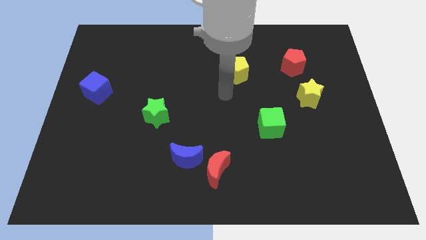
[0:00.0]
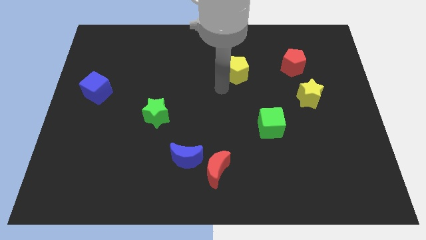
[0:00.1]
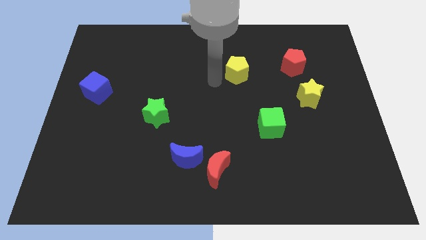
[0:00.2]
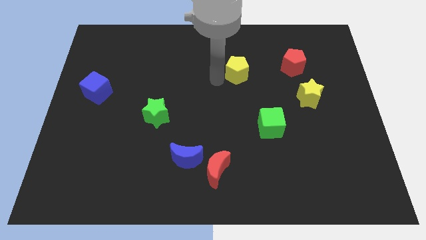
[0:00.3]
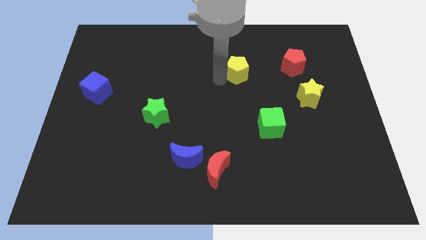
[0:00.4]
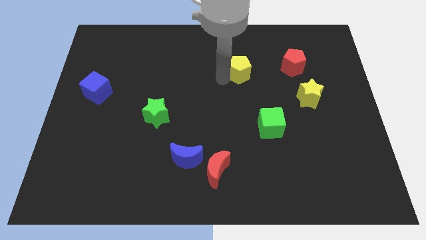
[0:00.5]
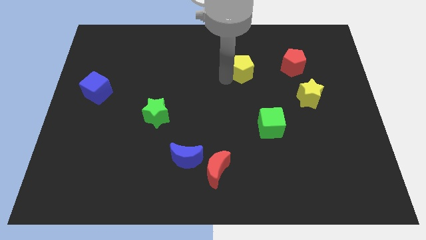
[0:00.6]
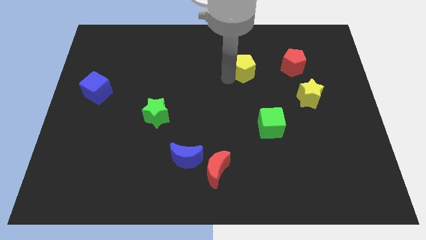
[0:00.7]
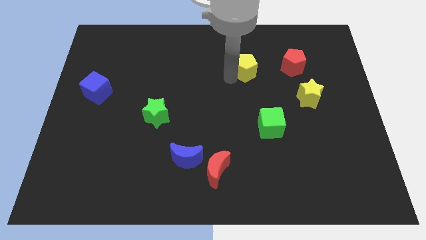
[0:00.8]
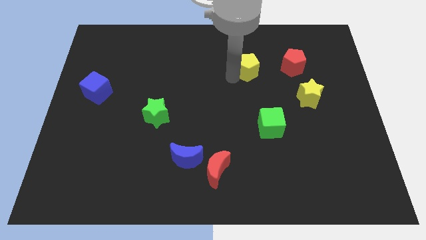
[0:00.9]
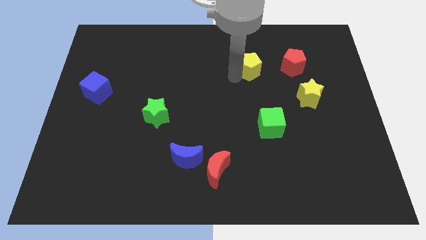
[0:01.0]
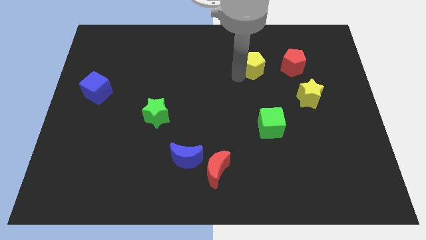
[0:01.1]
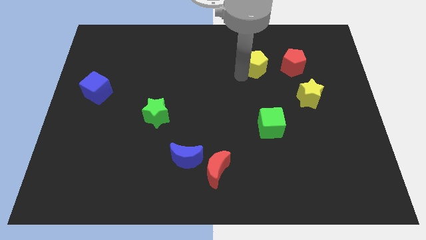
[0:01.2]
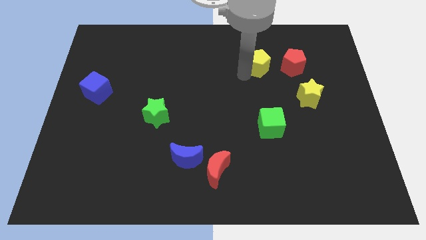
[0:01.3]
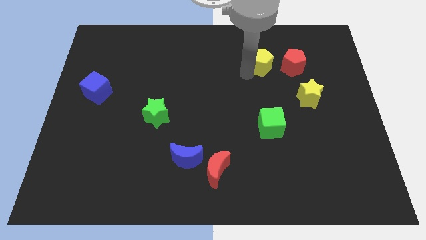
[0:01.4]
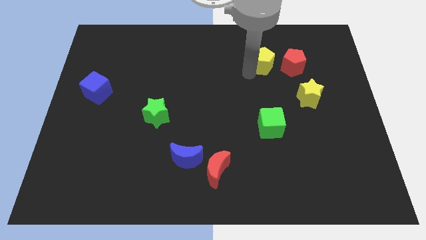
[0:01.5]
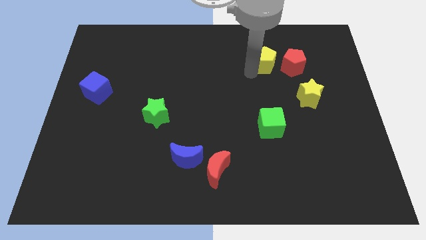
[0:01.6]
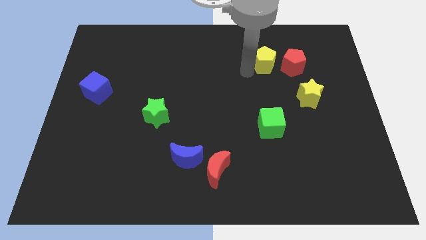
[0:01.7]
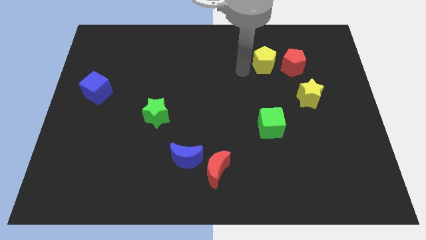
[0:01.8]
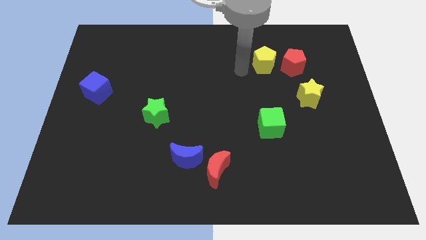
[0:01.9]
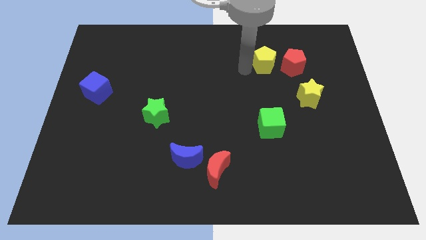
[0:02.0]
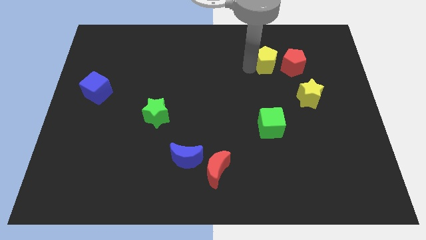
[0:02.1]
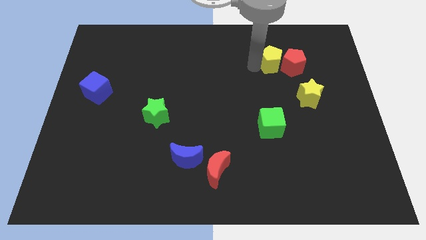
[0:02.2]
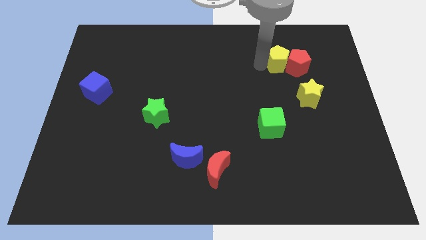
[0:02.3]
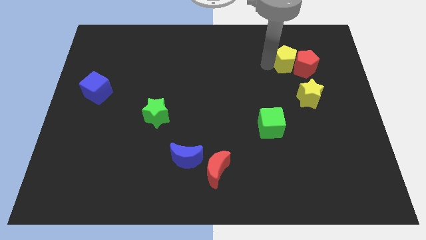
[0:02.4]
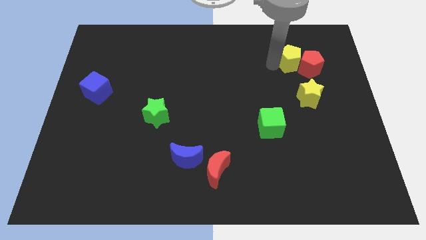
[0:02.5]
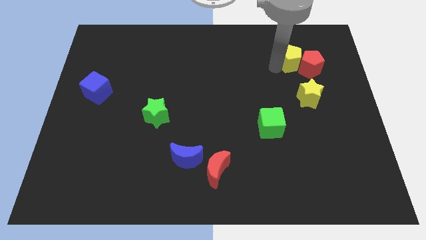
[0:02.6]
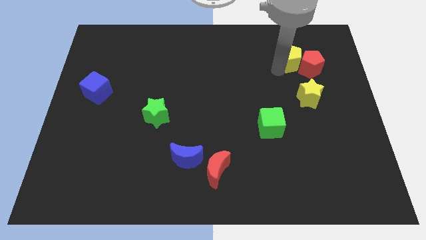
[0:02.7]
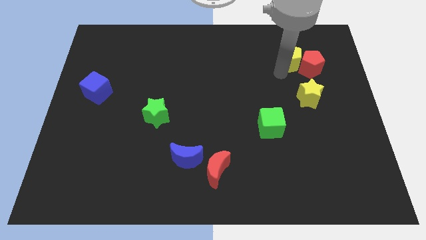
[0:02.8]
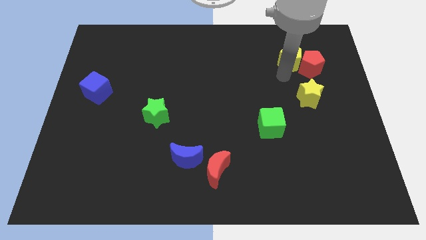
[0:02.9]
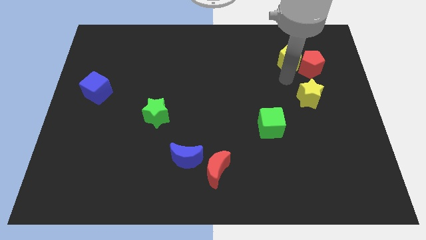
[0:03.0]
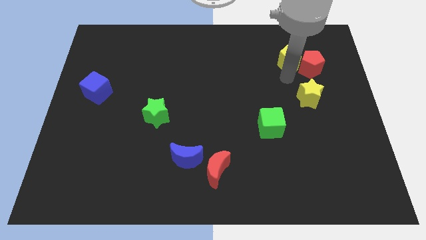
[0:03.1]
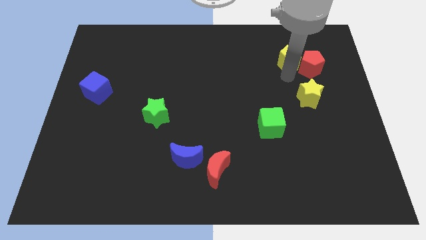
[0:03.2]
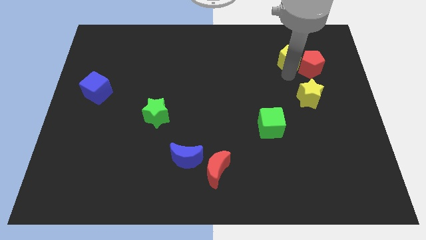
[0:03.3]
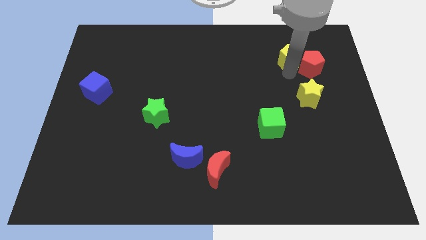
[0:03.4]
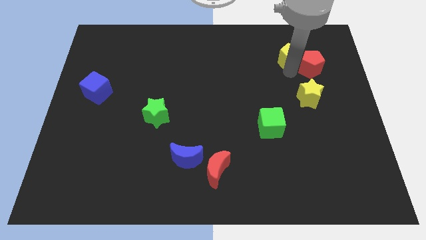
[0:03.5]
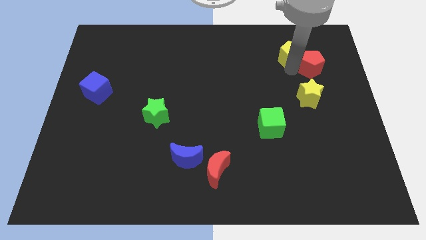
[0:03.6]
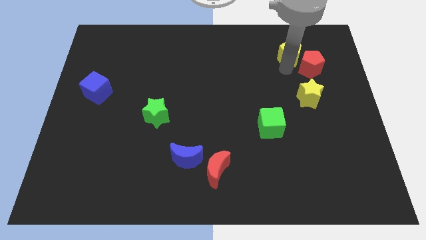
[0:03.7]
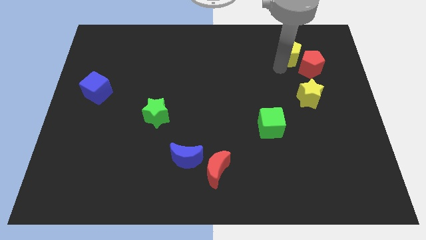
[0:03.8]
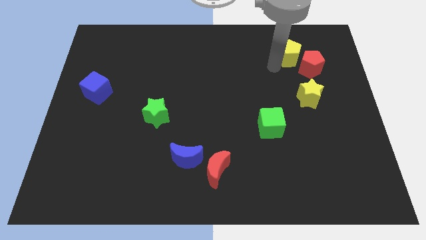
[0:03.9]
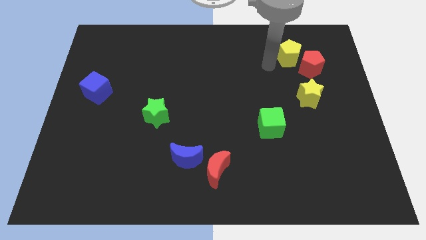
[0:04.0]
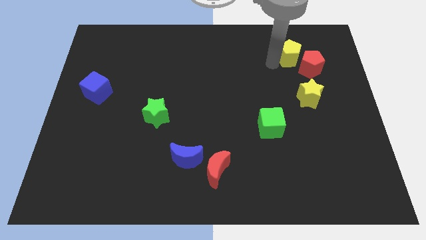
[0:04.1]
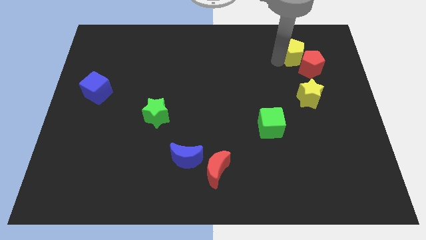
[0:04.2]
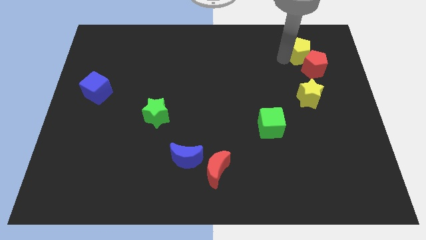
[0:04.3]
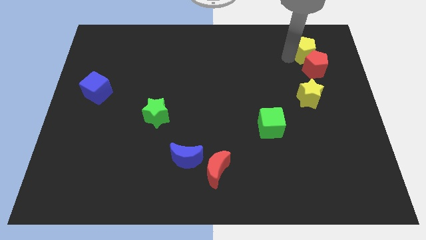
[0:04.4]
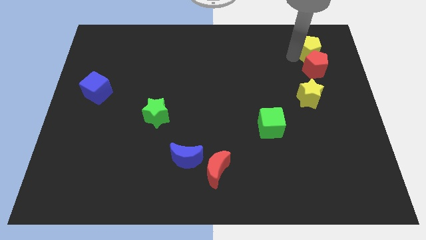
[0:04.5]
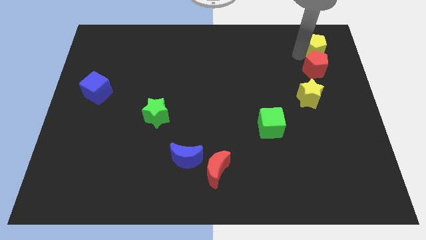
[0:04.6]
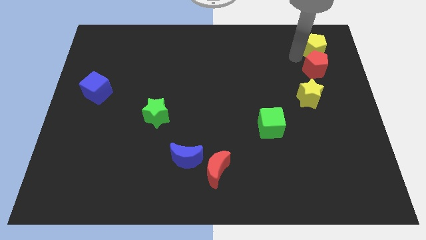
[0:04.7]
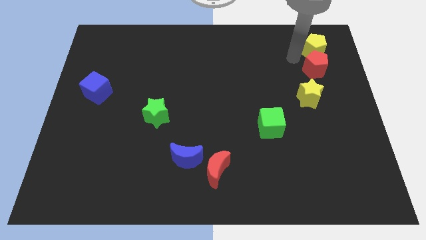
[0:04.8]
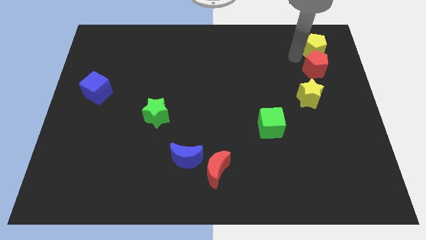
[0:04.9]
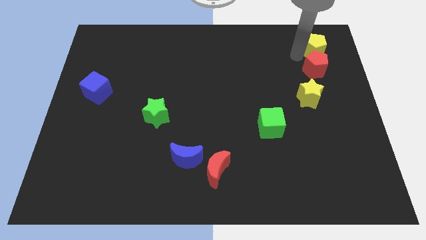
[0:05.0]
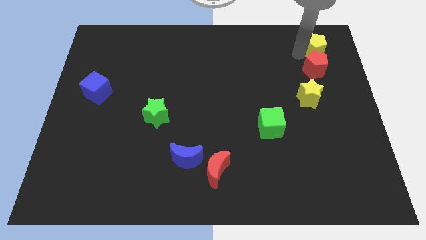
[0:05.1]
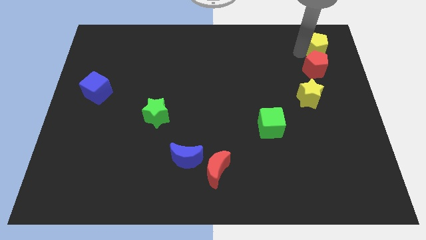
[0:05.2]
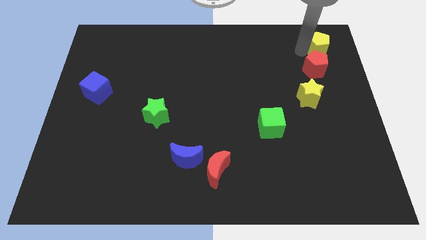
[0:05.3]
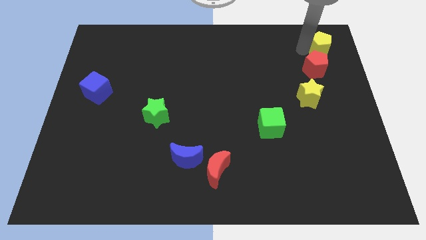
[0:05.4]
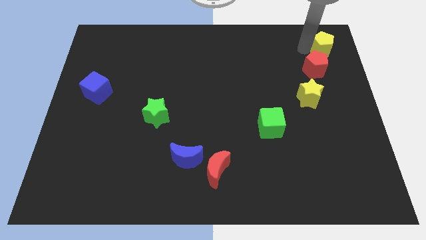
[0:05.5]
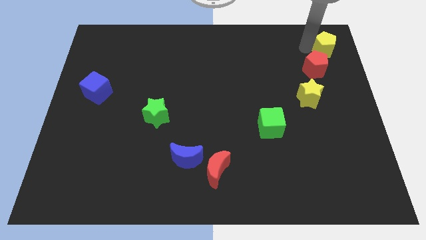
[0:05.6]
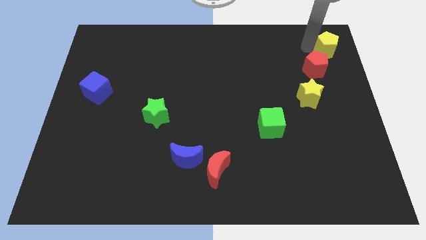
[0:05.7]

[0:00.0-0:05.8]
slide the yellow pentagon to the top right of the board

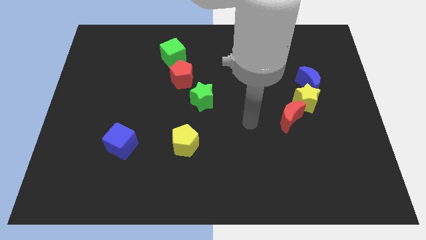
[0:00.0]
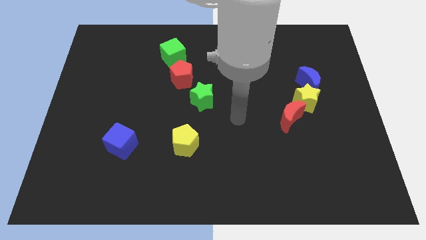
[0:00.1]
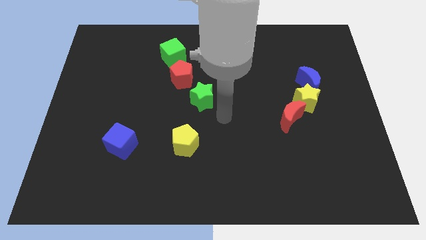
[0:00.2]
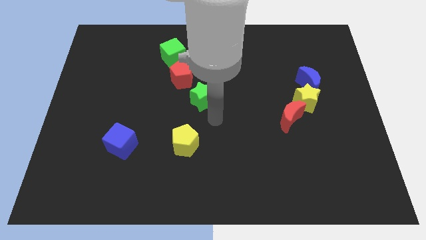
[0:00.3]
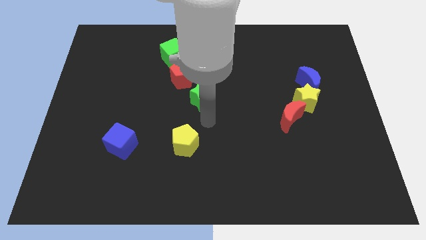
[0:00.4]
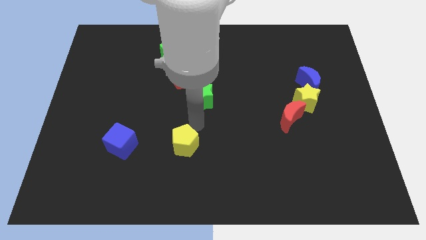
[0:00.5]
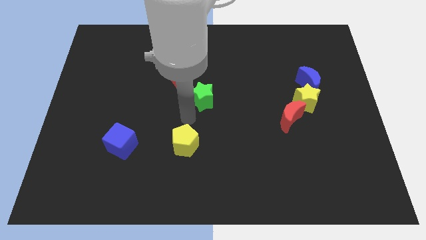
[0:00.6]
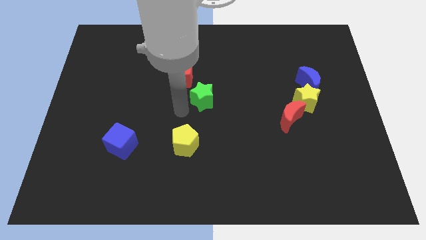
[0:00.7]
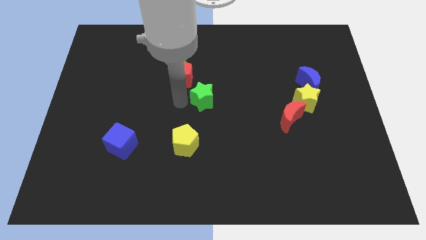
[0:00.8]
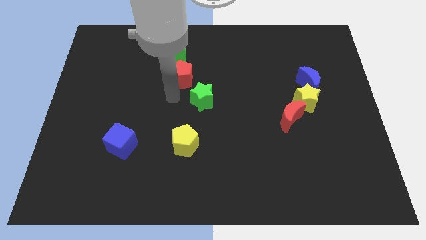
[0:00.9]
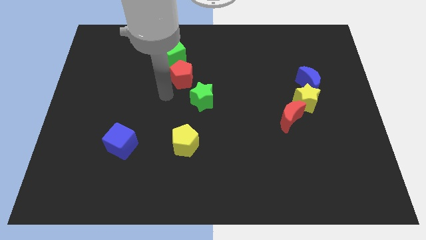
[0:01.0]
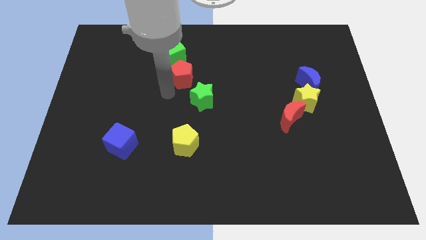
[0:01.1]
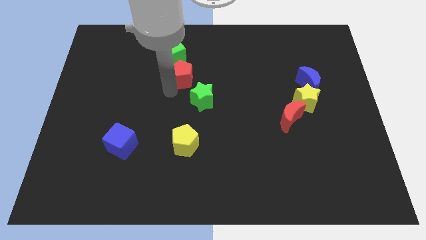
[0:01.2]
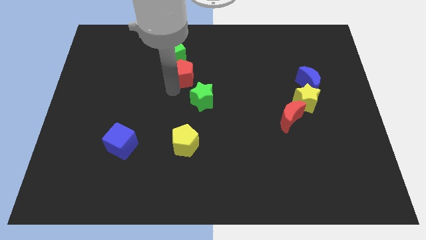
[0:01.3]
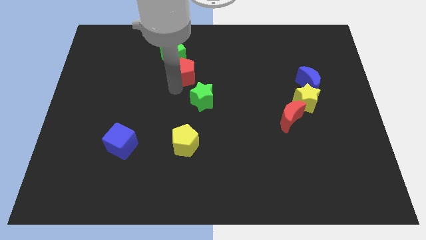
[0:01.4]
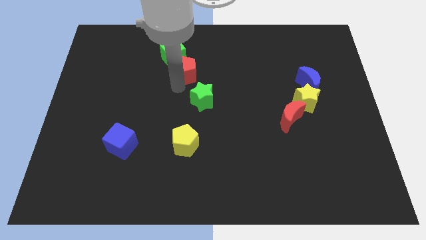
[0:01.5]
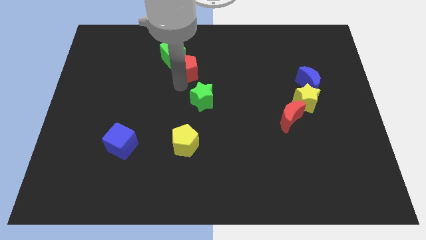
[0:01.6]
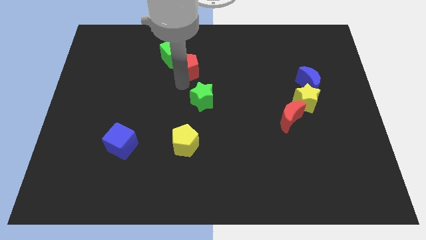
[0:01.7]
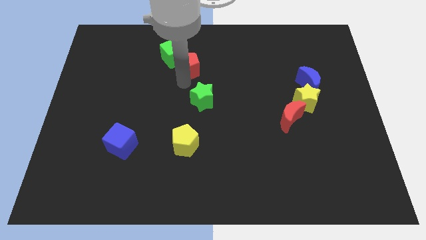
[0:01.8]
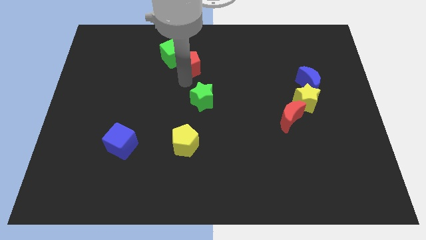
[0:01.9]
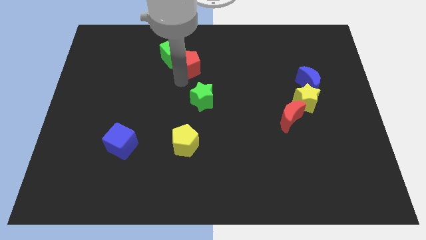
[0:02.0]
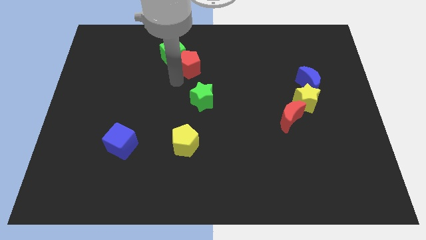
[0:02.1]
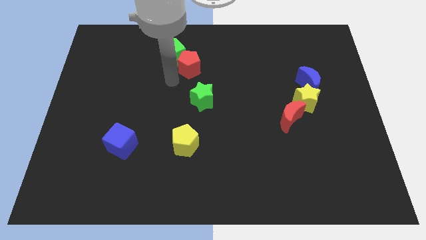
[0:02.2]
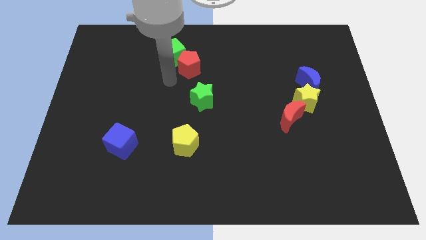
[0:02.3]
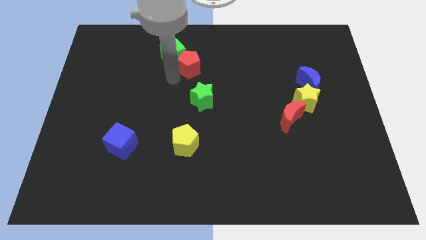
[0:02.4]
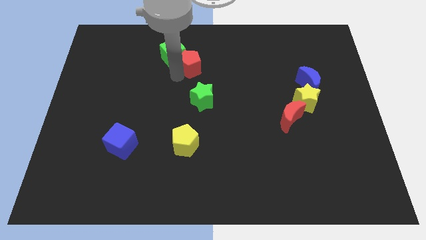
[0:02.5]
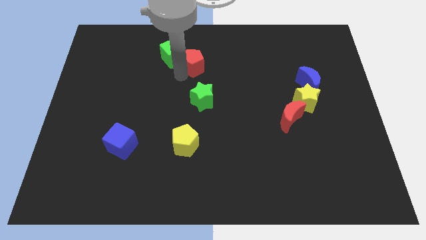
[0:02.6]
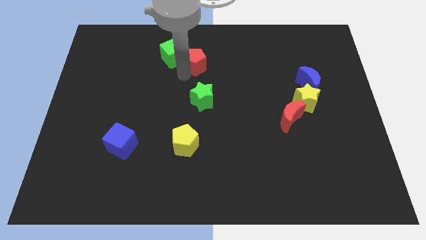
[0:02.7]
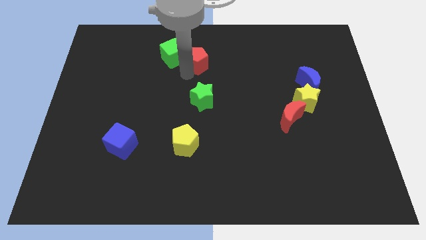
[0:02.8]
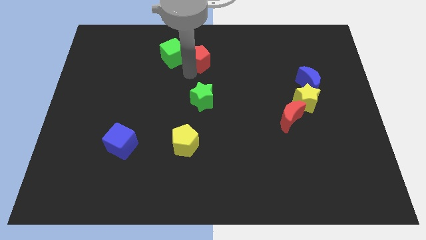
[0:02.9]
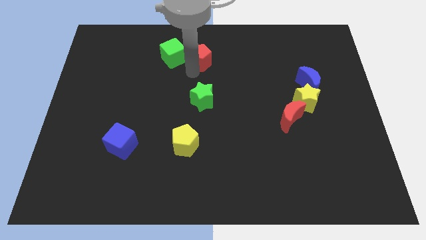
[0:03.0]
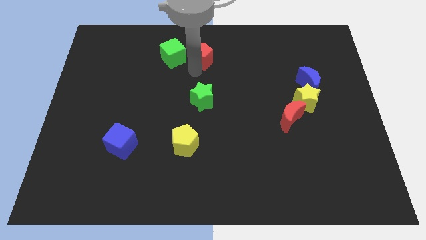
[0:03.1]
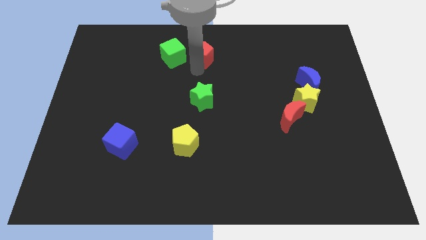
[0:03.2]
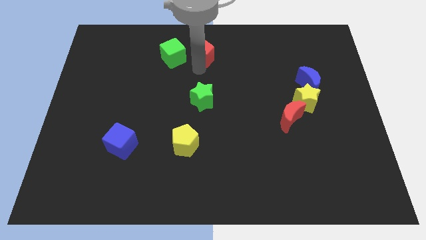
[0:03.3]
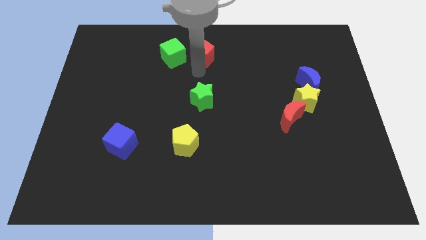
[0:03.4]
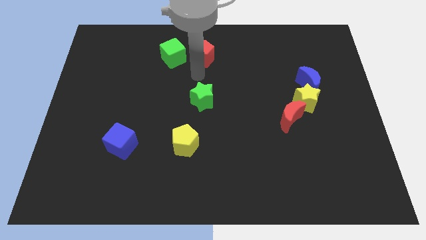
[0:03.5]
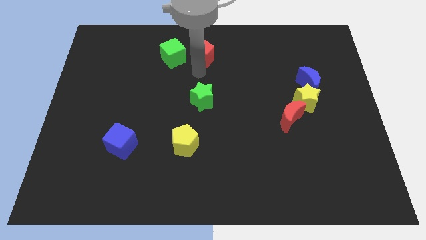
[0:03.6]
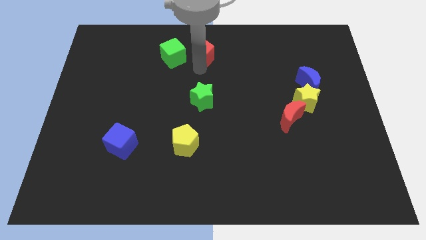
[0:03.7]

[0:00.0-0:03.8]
slide the red pentagon to the top side
